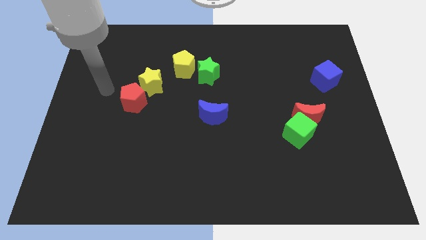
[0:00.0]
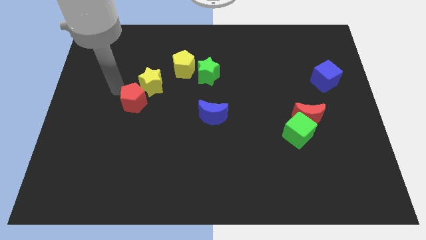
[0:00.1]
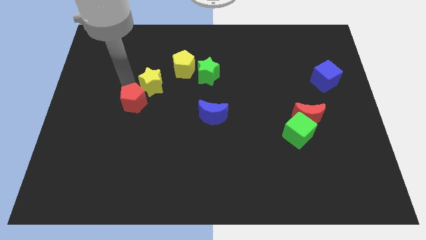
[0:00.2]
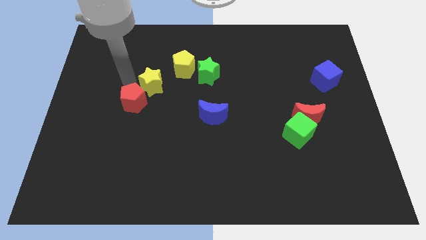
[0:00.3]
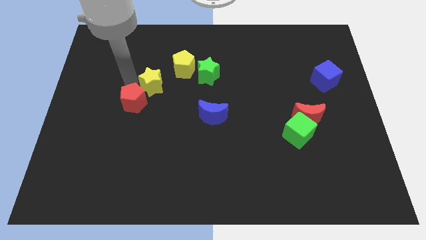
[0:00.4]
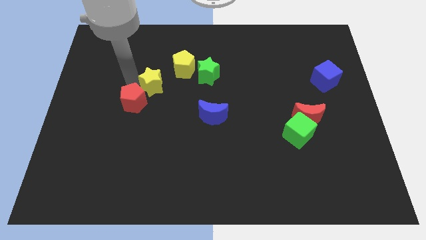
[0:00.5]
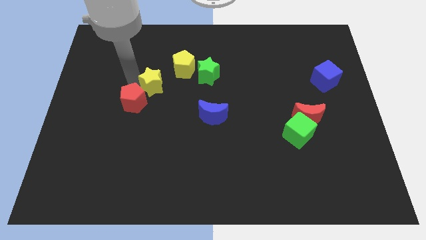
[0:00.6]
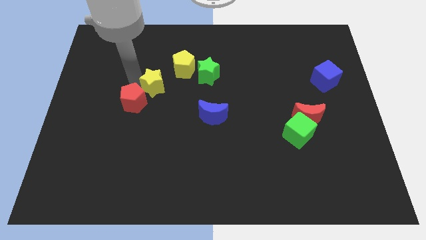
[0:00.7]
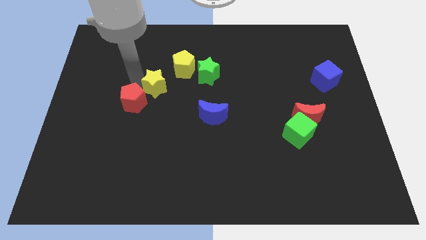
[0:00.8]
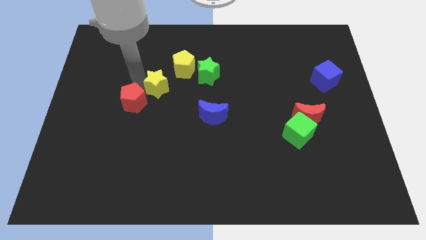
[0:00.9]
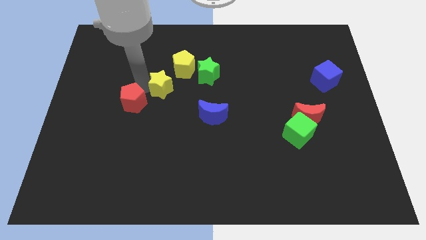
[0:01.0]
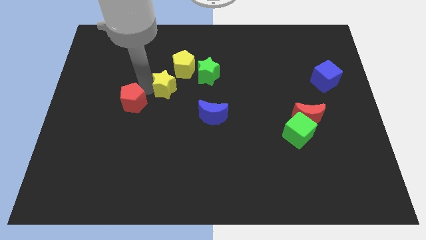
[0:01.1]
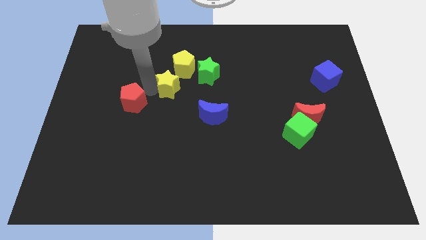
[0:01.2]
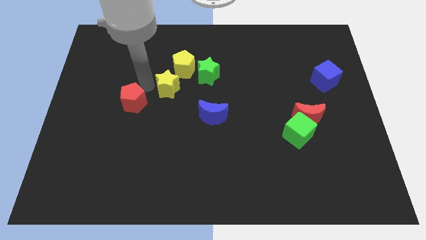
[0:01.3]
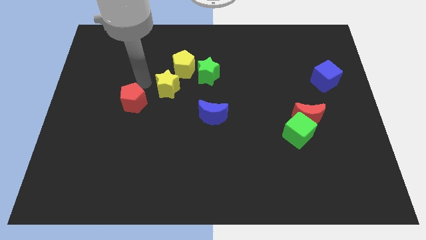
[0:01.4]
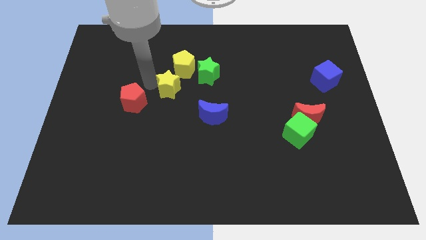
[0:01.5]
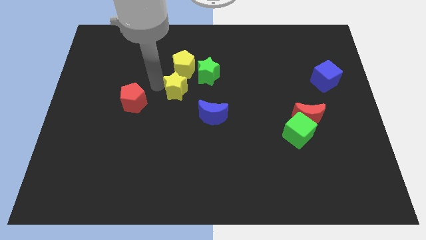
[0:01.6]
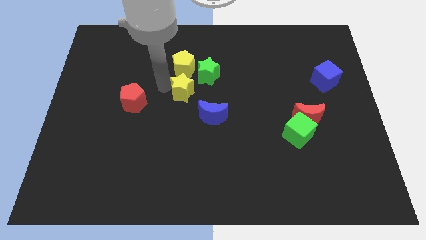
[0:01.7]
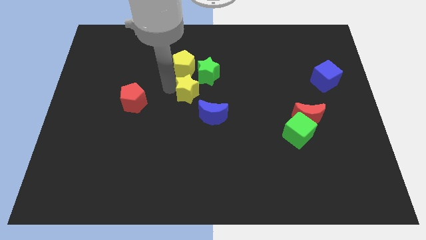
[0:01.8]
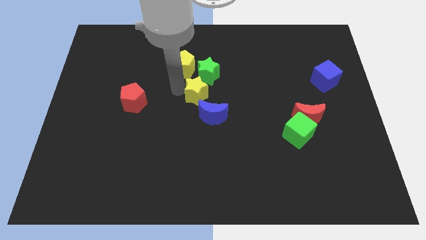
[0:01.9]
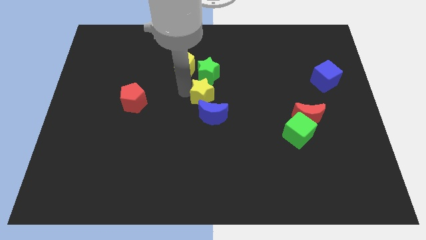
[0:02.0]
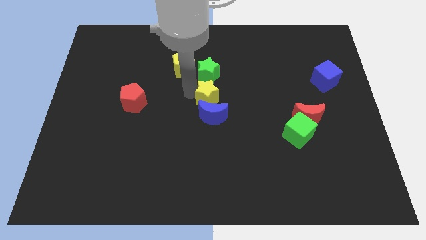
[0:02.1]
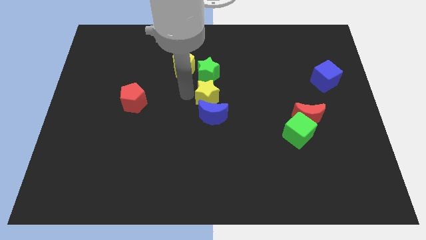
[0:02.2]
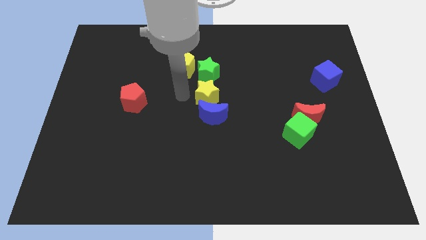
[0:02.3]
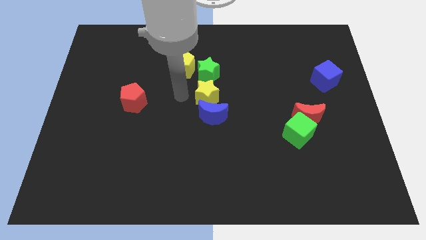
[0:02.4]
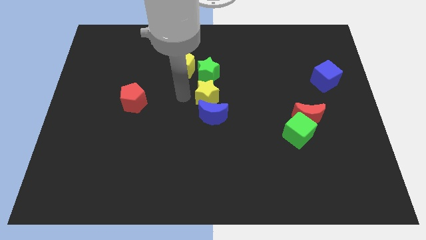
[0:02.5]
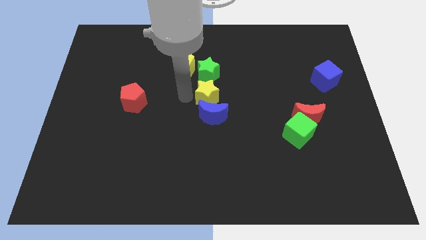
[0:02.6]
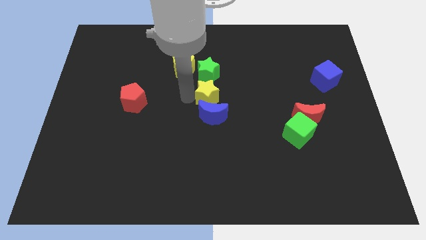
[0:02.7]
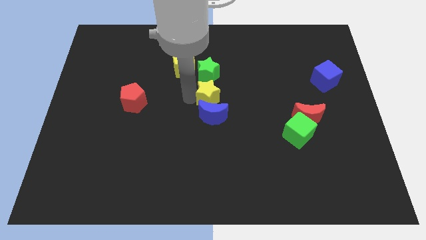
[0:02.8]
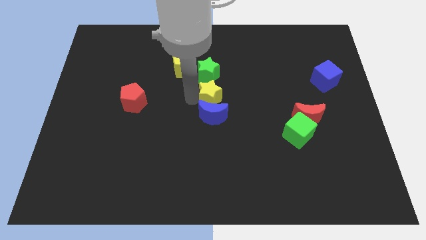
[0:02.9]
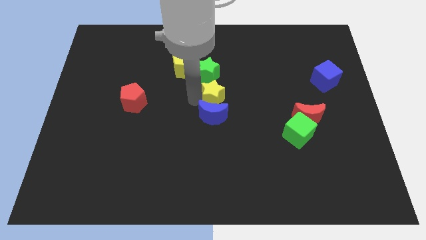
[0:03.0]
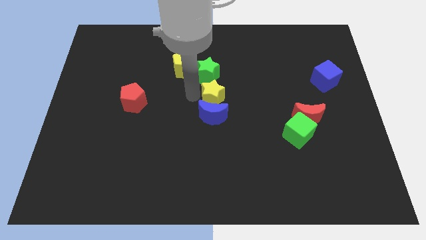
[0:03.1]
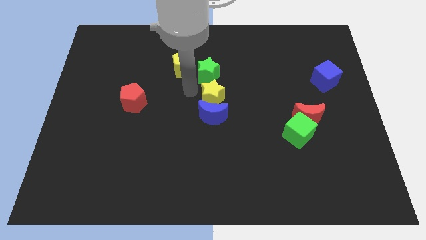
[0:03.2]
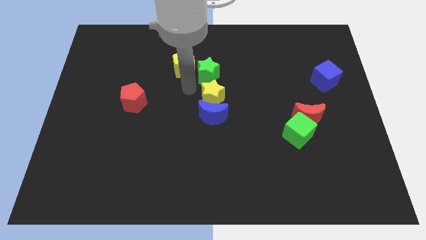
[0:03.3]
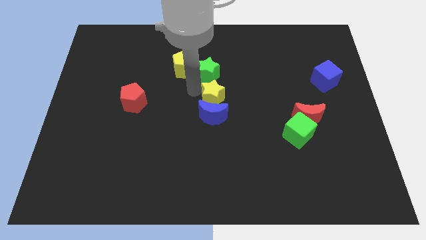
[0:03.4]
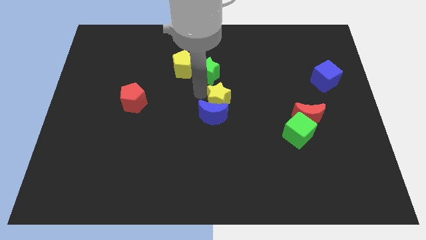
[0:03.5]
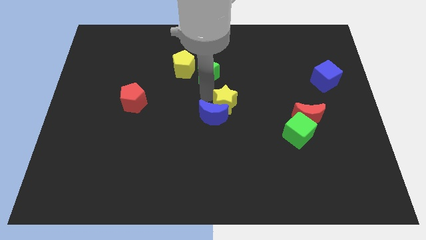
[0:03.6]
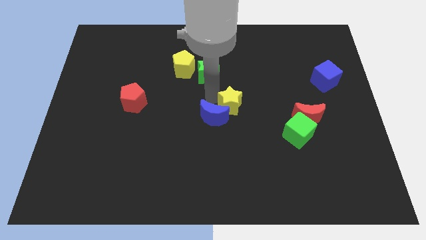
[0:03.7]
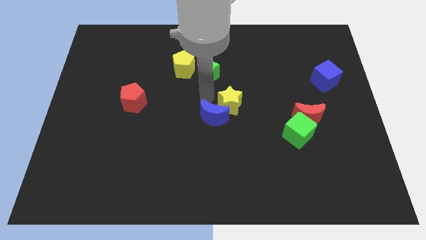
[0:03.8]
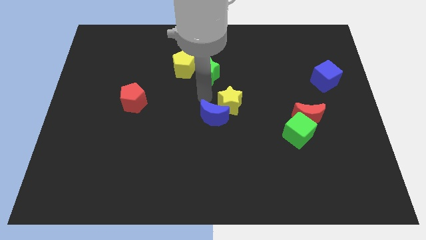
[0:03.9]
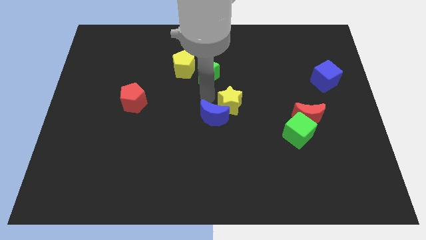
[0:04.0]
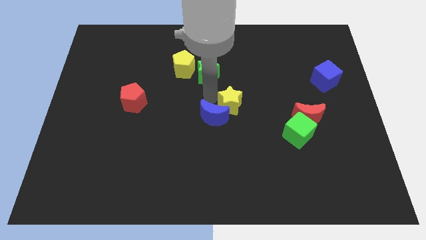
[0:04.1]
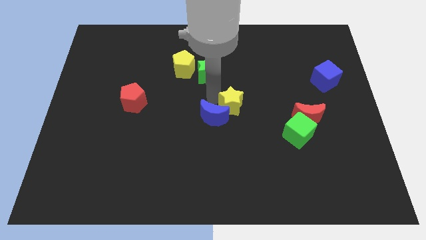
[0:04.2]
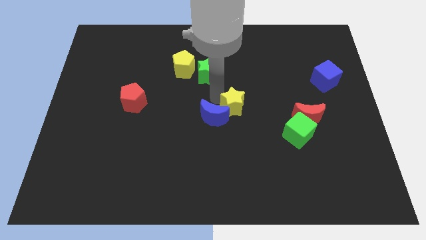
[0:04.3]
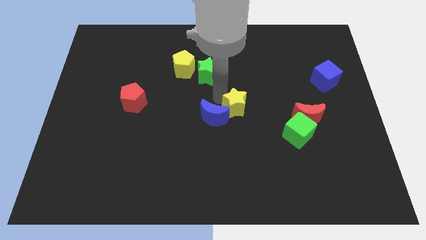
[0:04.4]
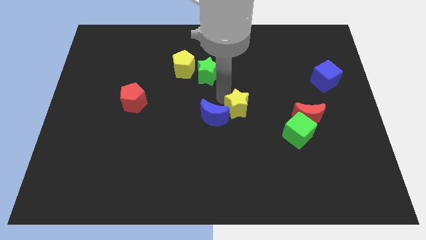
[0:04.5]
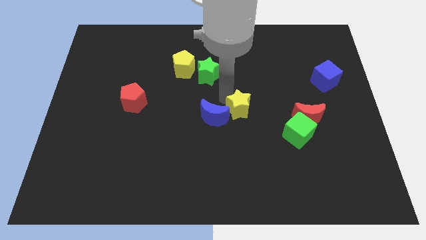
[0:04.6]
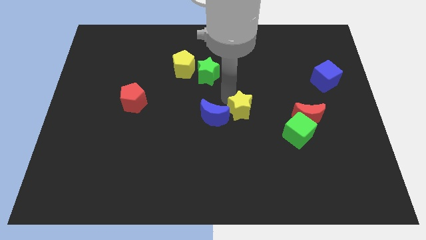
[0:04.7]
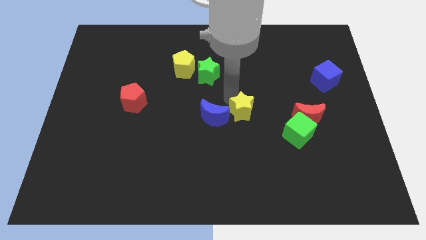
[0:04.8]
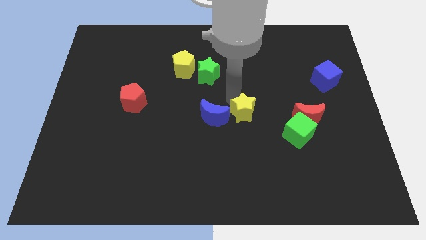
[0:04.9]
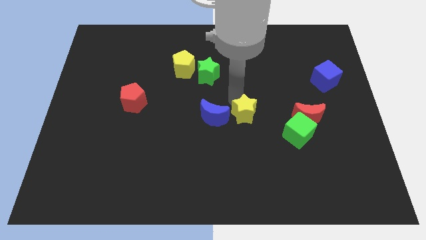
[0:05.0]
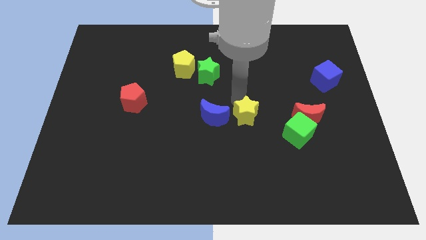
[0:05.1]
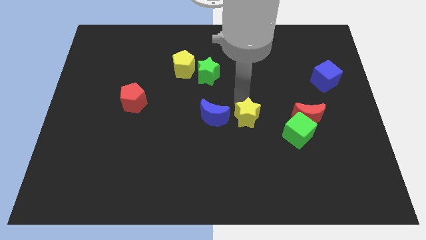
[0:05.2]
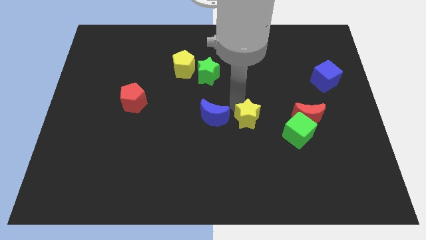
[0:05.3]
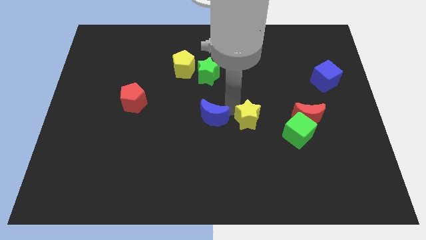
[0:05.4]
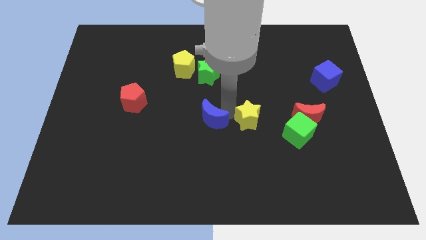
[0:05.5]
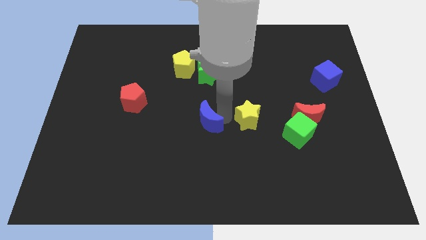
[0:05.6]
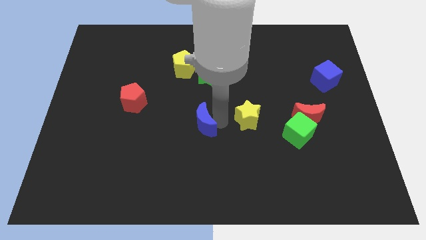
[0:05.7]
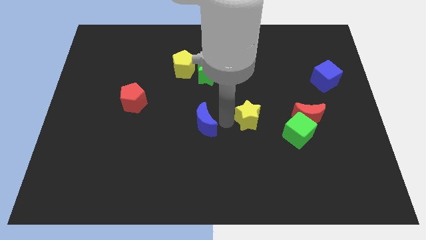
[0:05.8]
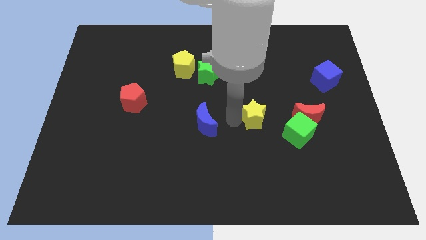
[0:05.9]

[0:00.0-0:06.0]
put the yellow star to the top left of the green cube

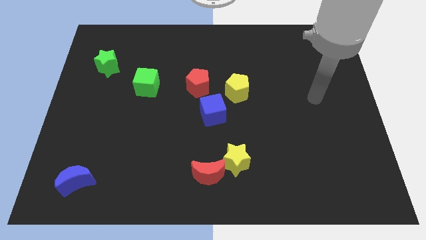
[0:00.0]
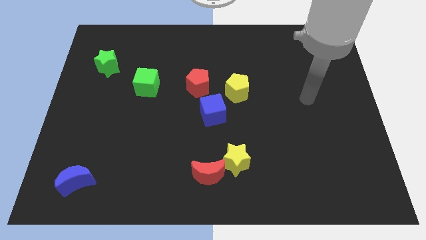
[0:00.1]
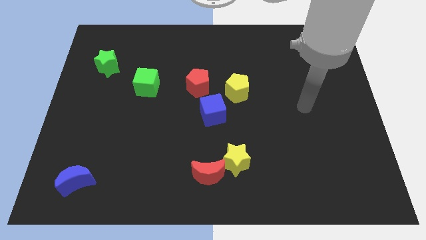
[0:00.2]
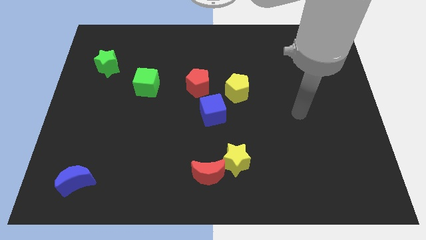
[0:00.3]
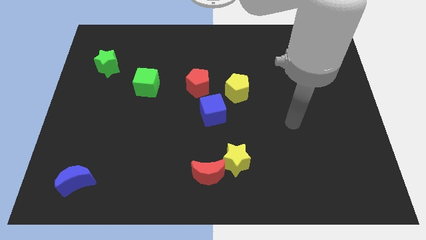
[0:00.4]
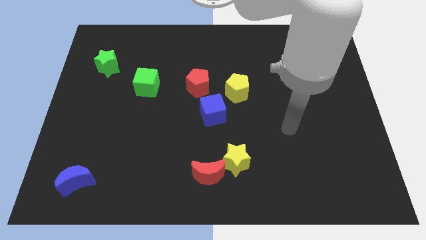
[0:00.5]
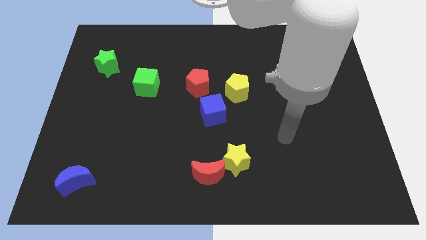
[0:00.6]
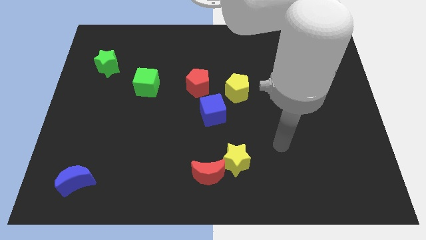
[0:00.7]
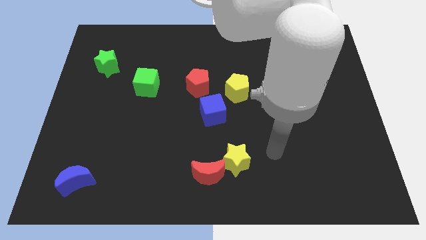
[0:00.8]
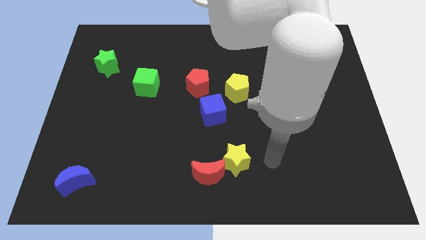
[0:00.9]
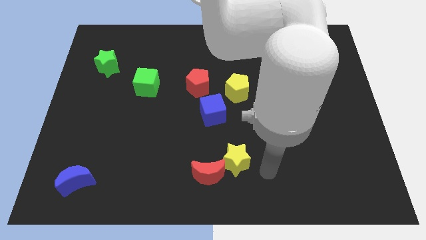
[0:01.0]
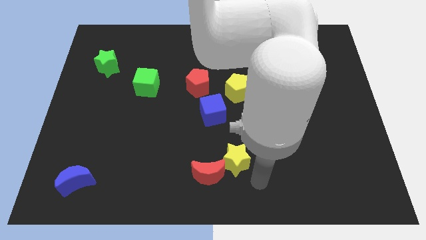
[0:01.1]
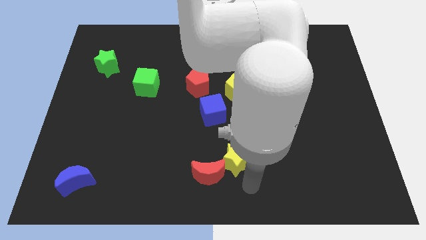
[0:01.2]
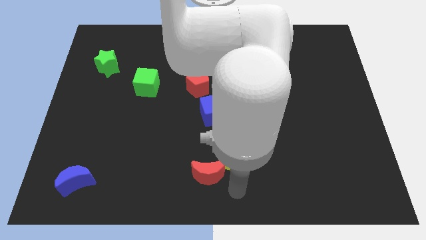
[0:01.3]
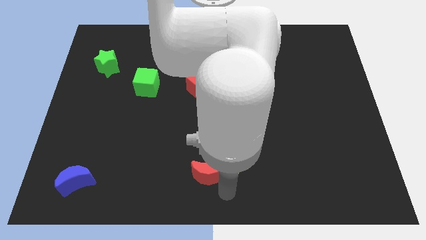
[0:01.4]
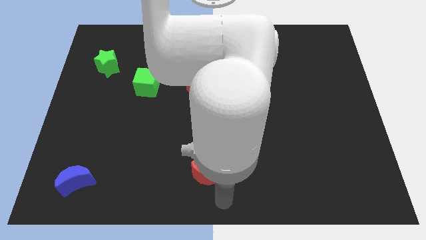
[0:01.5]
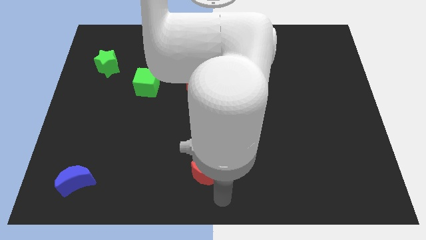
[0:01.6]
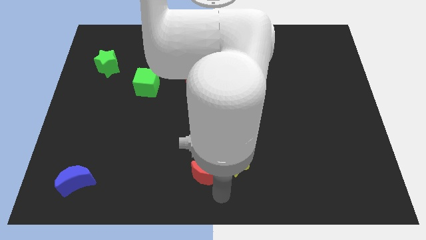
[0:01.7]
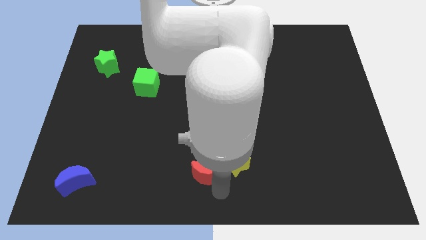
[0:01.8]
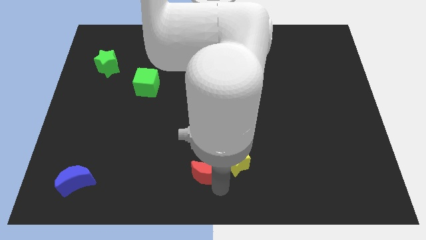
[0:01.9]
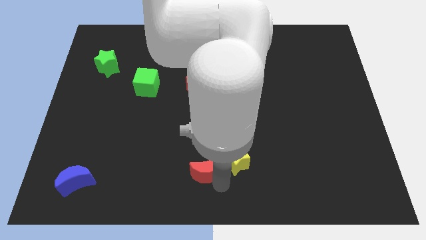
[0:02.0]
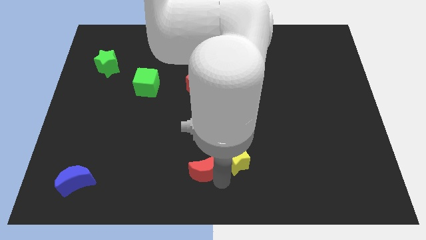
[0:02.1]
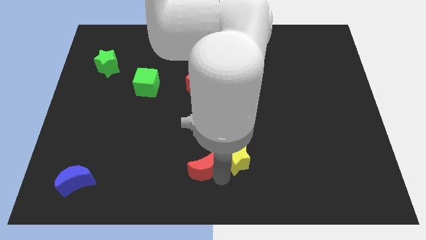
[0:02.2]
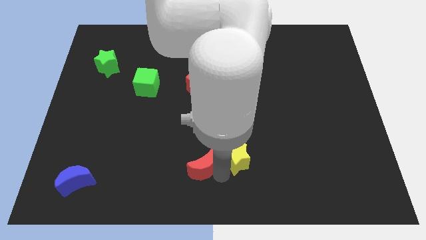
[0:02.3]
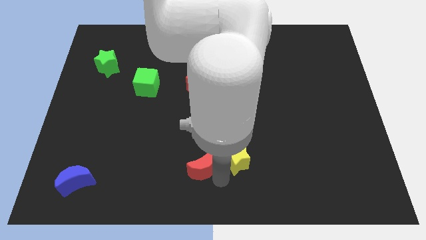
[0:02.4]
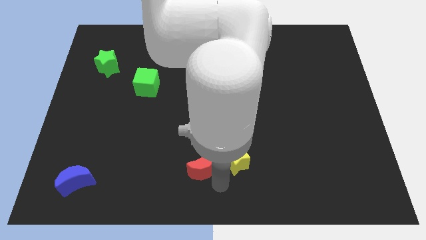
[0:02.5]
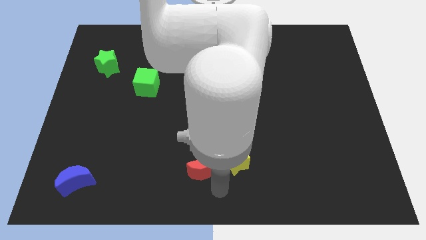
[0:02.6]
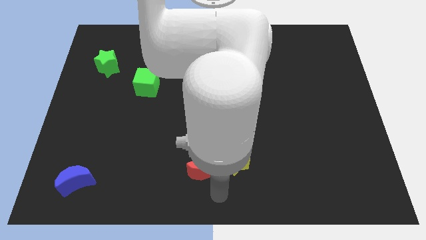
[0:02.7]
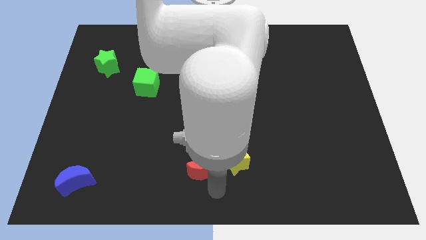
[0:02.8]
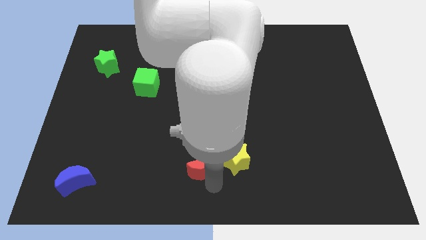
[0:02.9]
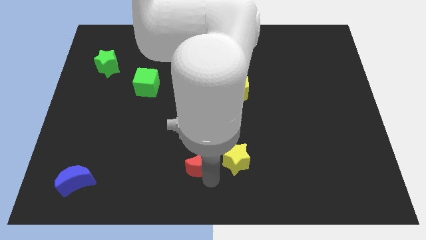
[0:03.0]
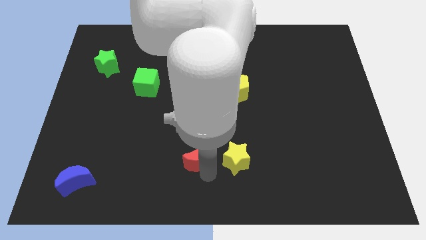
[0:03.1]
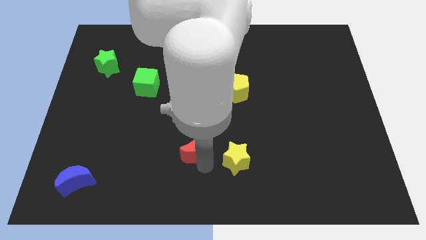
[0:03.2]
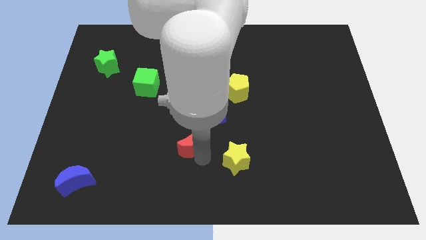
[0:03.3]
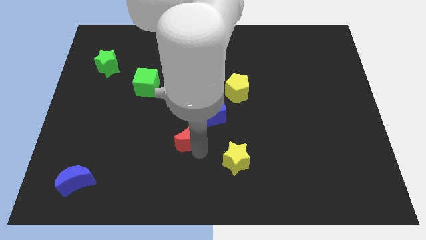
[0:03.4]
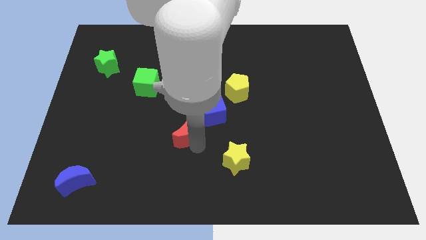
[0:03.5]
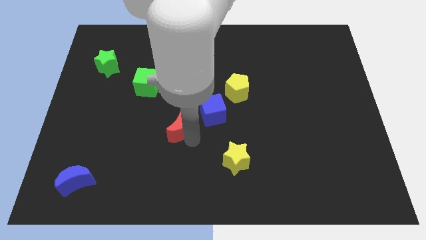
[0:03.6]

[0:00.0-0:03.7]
move the red moon to the left of the blue cube
